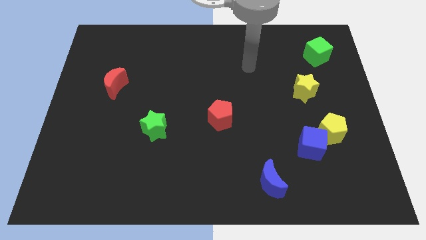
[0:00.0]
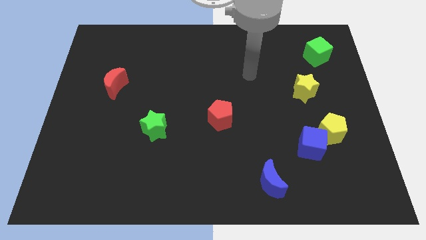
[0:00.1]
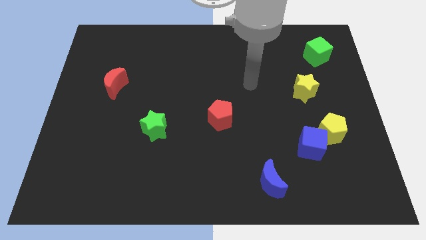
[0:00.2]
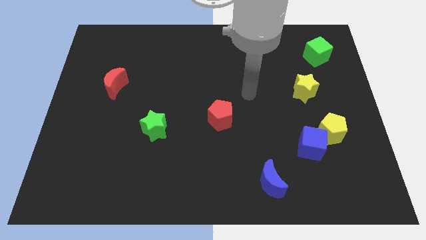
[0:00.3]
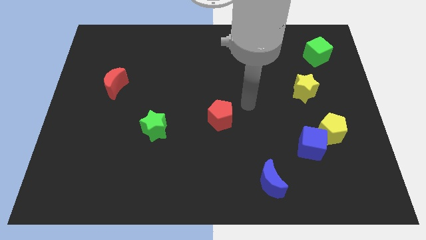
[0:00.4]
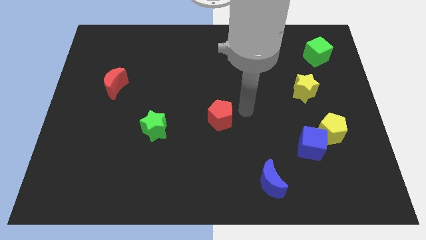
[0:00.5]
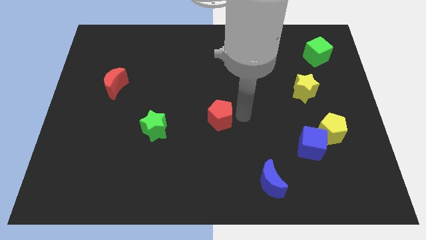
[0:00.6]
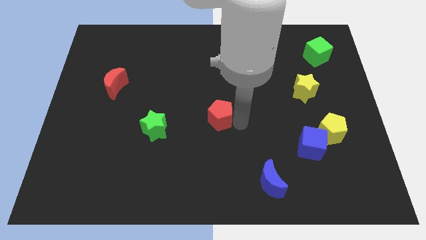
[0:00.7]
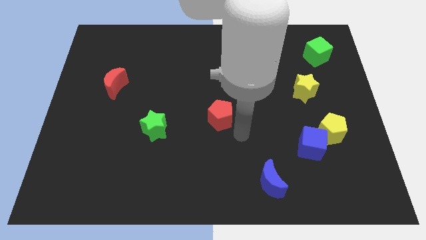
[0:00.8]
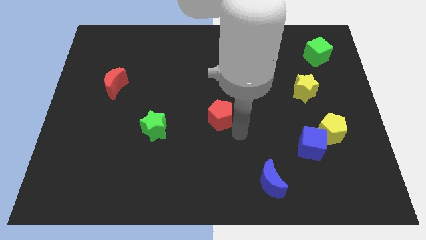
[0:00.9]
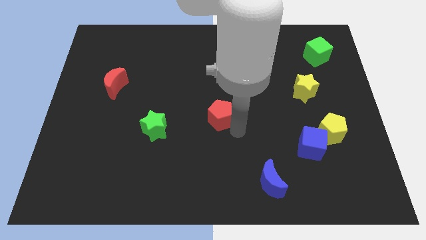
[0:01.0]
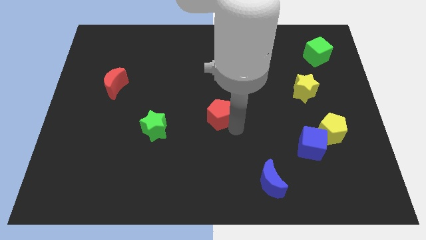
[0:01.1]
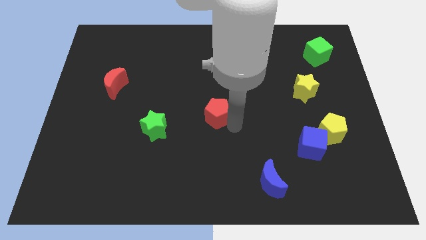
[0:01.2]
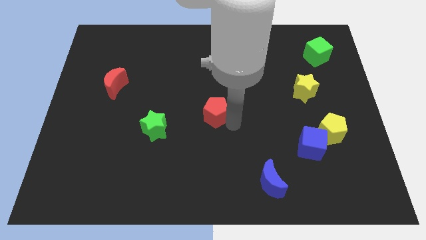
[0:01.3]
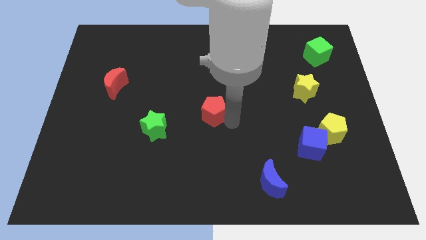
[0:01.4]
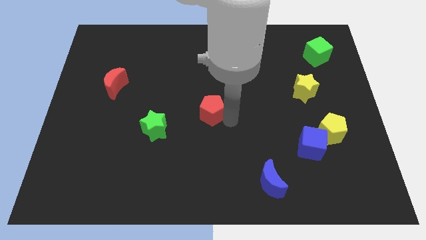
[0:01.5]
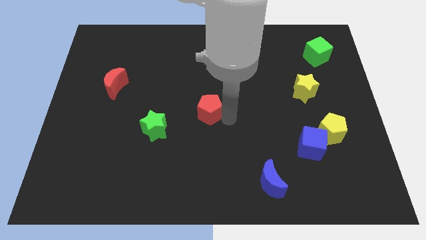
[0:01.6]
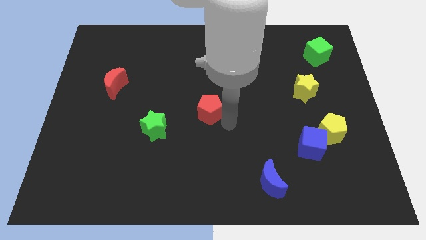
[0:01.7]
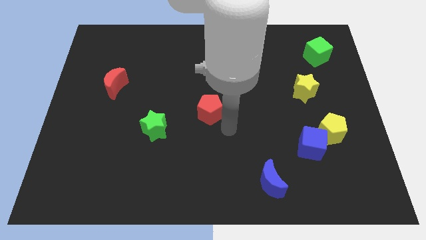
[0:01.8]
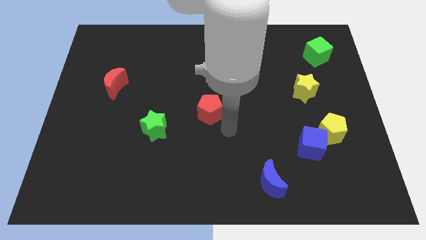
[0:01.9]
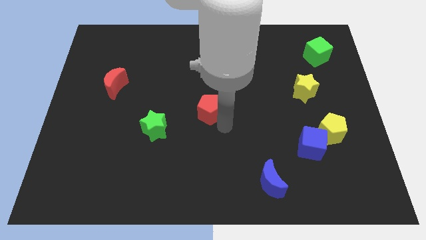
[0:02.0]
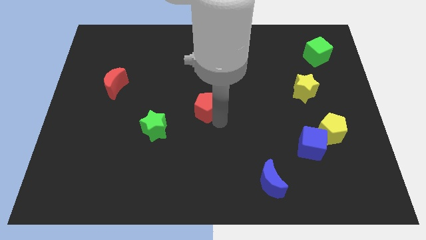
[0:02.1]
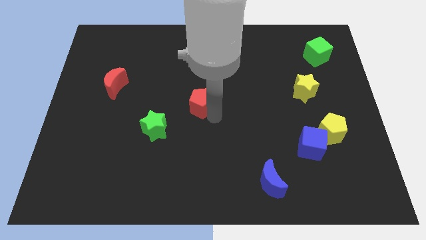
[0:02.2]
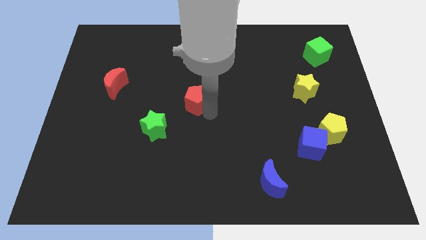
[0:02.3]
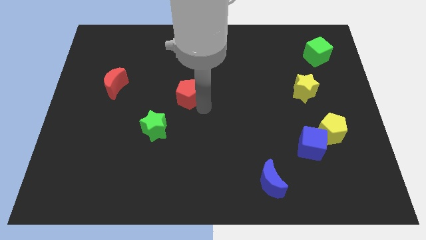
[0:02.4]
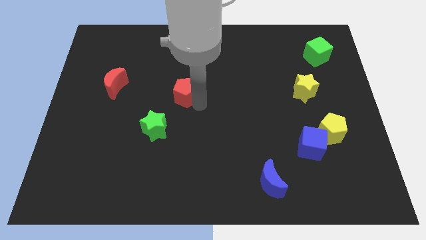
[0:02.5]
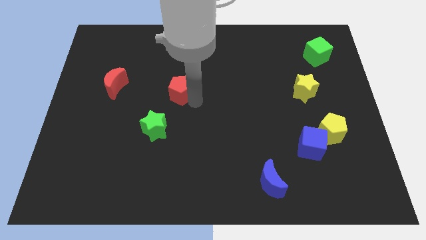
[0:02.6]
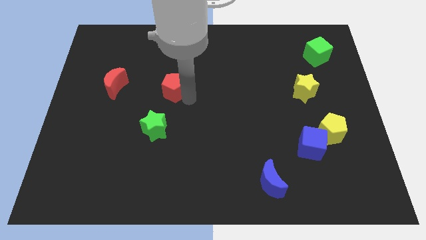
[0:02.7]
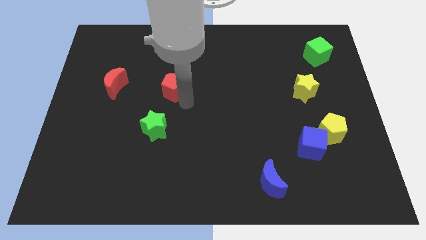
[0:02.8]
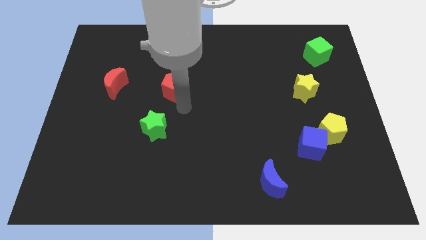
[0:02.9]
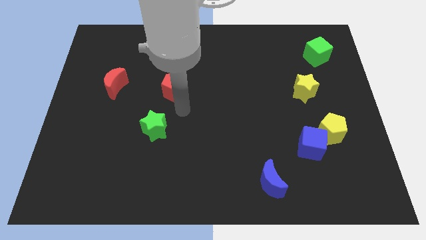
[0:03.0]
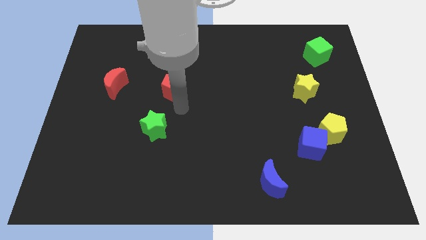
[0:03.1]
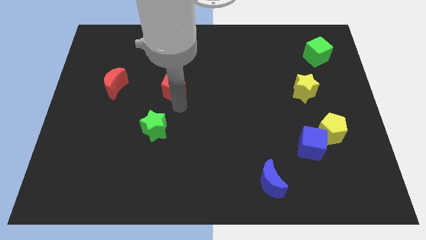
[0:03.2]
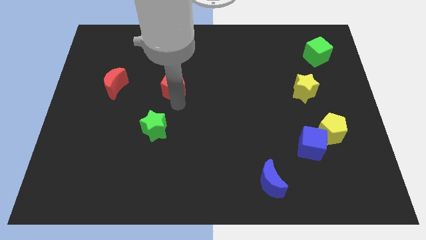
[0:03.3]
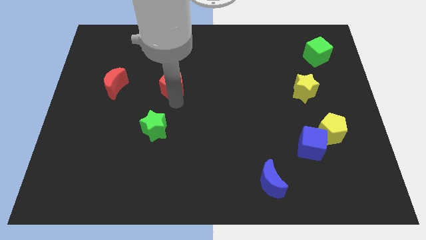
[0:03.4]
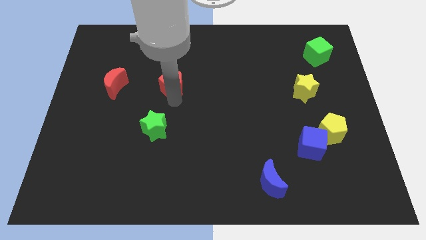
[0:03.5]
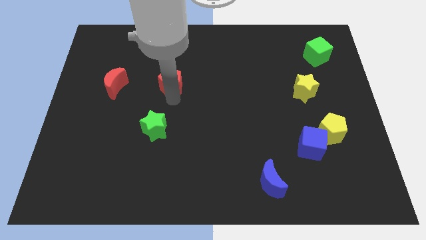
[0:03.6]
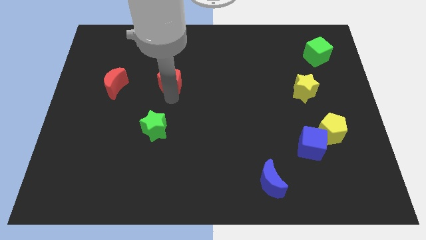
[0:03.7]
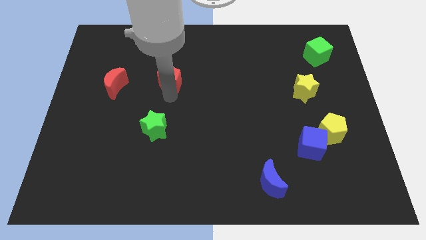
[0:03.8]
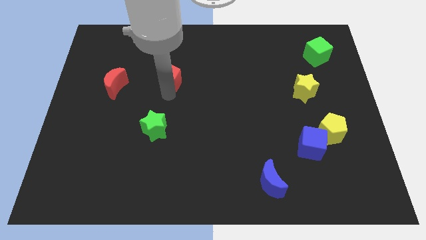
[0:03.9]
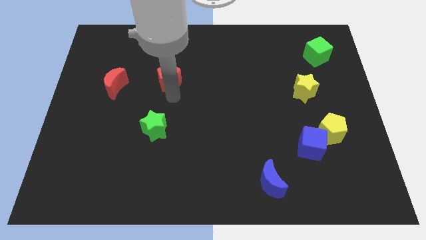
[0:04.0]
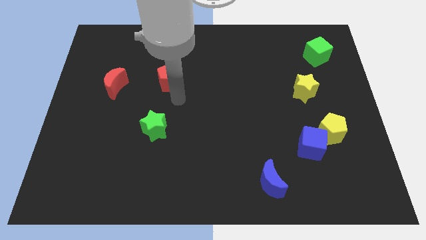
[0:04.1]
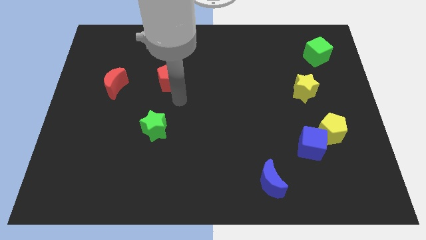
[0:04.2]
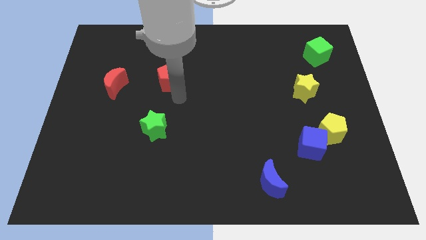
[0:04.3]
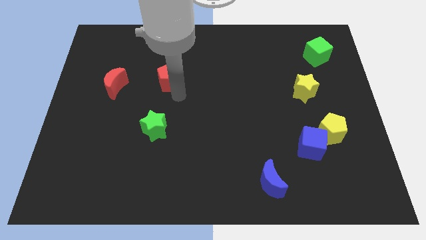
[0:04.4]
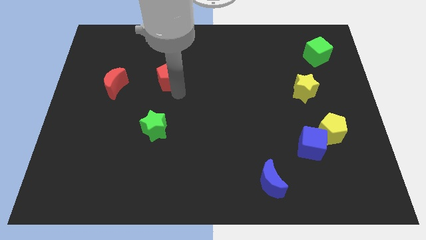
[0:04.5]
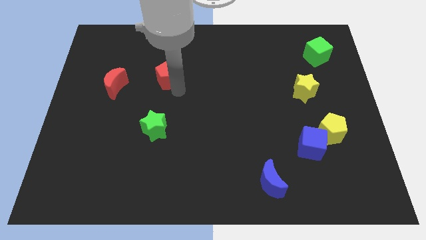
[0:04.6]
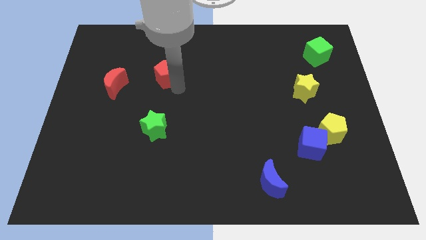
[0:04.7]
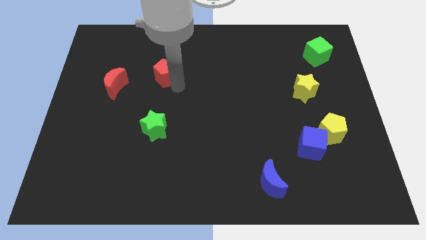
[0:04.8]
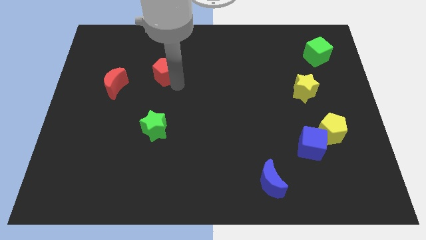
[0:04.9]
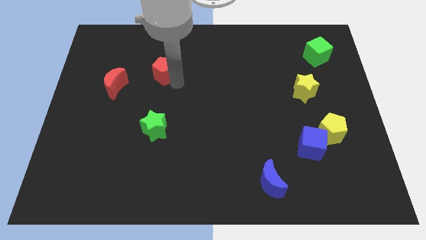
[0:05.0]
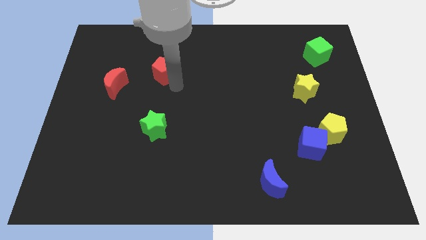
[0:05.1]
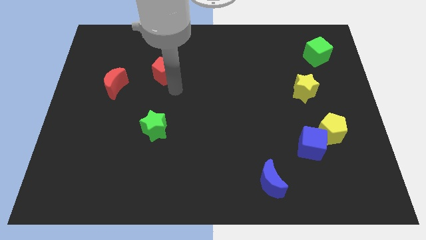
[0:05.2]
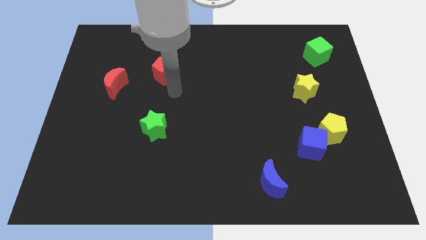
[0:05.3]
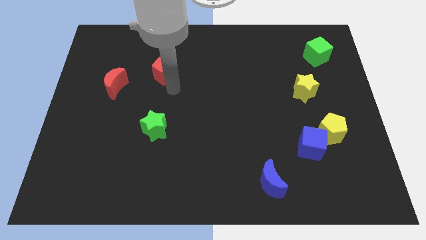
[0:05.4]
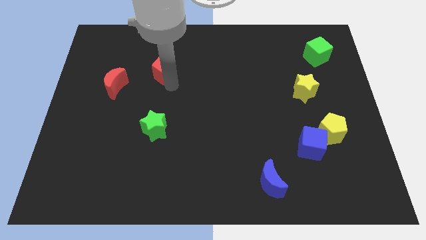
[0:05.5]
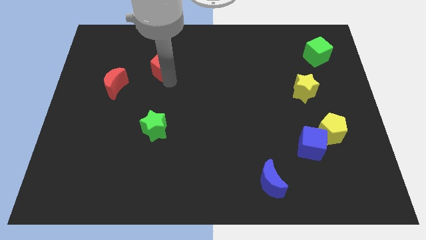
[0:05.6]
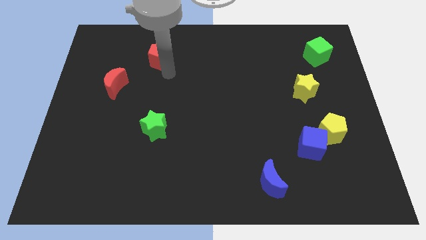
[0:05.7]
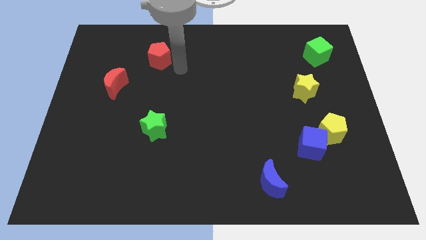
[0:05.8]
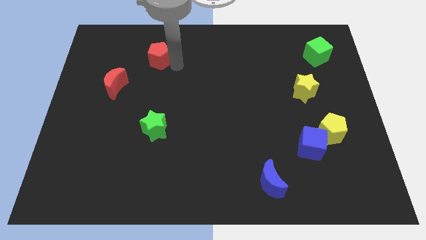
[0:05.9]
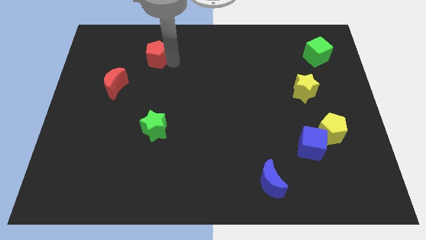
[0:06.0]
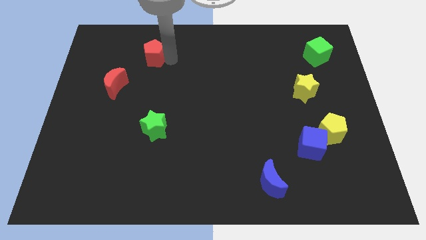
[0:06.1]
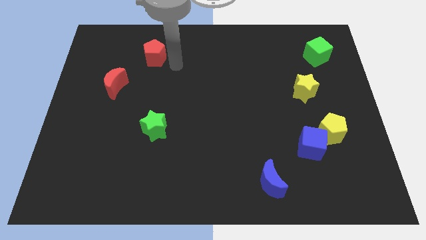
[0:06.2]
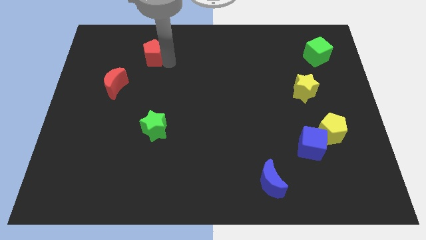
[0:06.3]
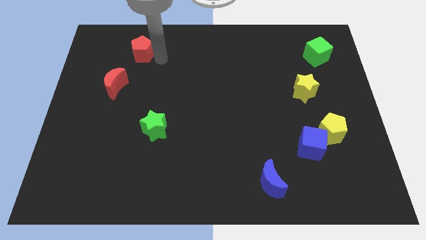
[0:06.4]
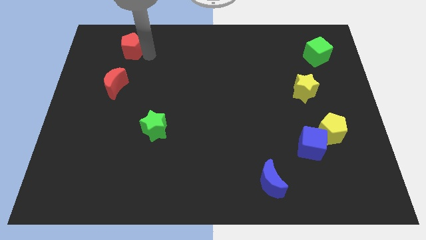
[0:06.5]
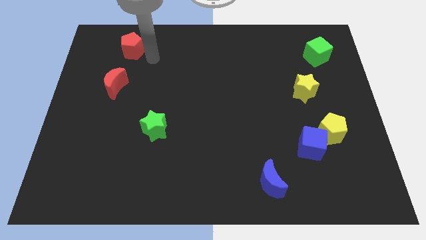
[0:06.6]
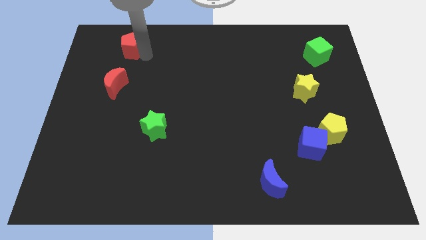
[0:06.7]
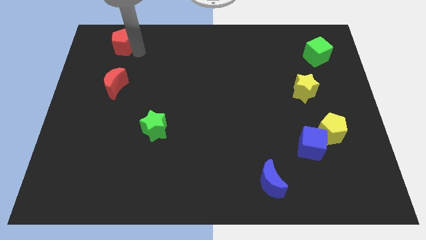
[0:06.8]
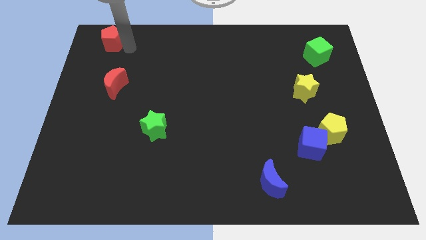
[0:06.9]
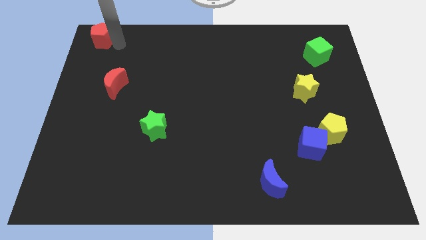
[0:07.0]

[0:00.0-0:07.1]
push the red pentagon to the top left of the board
